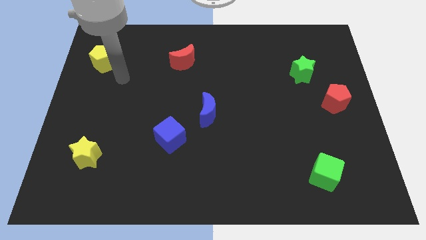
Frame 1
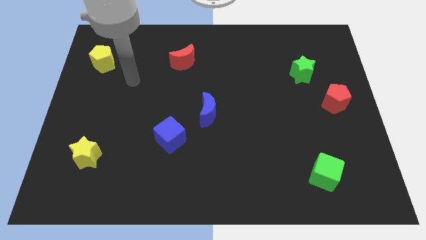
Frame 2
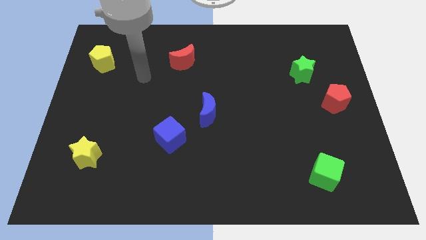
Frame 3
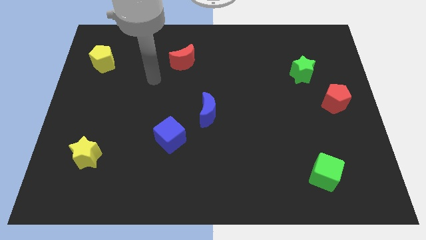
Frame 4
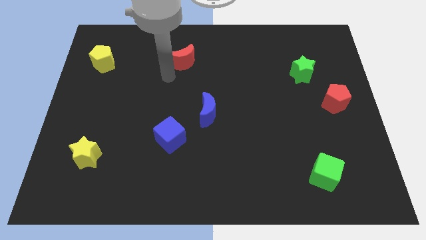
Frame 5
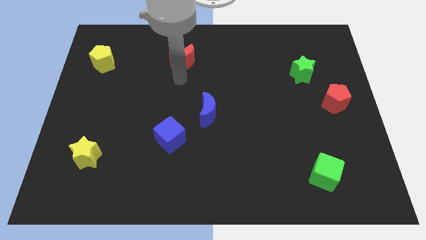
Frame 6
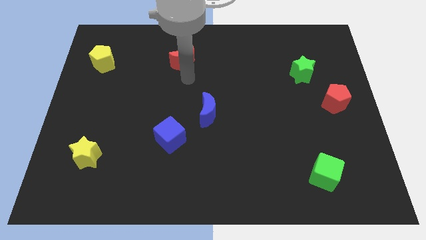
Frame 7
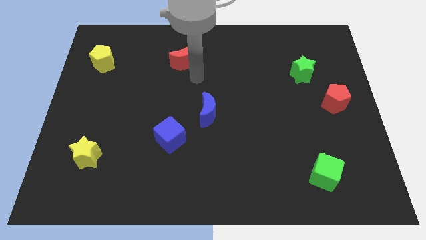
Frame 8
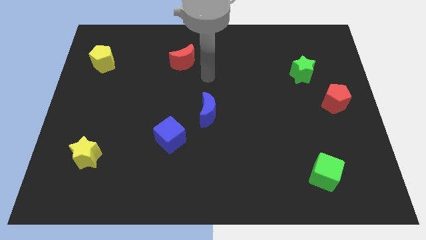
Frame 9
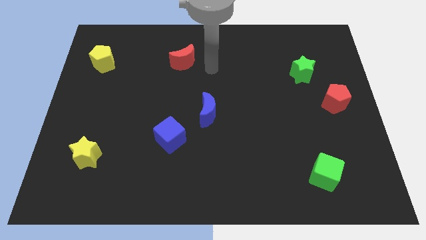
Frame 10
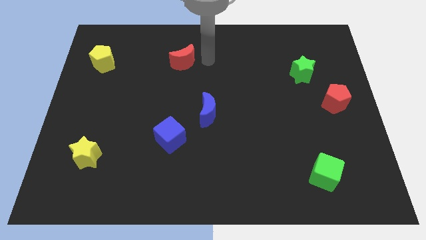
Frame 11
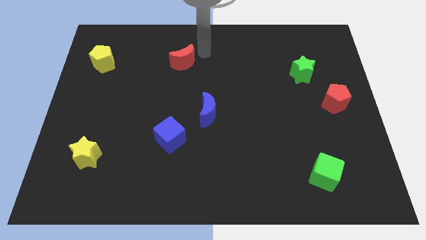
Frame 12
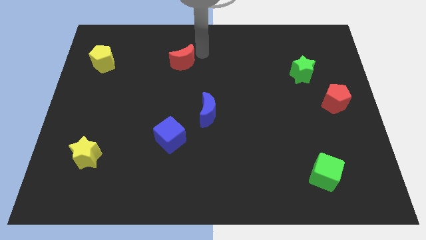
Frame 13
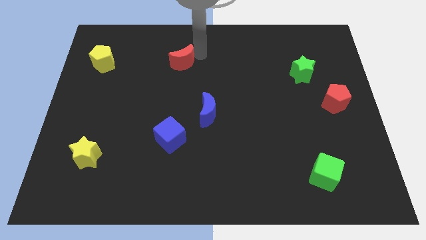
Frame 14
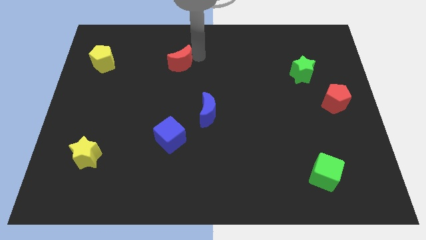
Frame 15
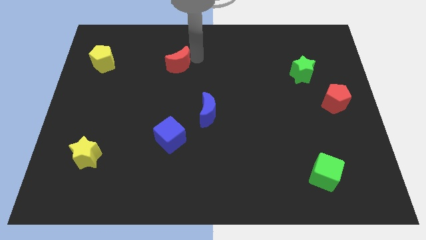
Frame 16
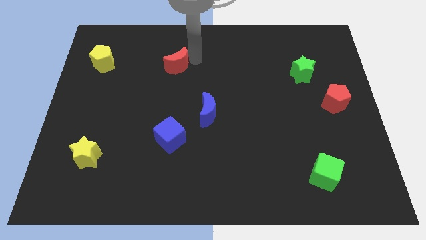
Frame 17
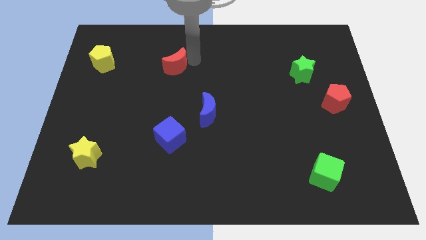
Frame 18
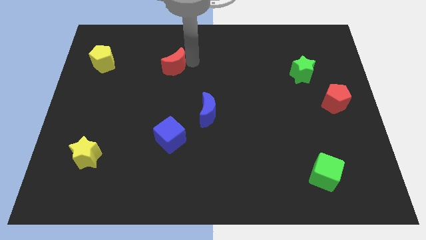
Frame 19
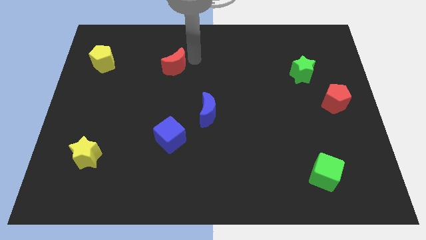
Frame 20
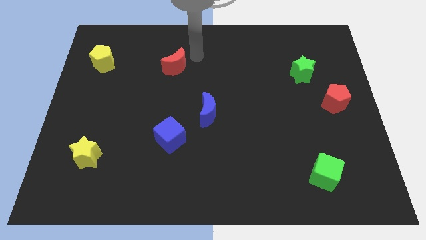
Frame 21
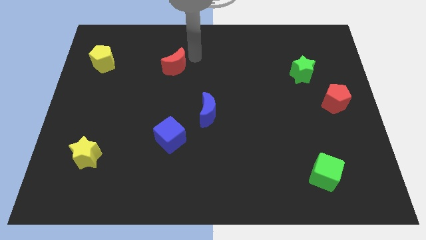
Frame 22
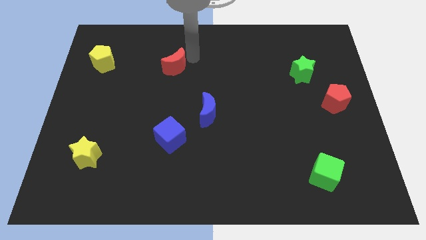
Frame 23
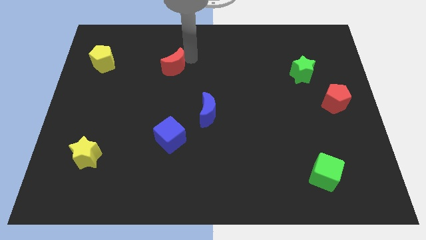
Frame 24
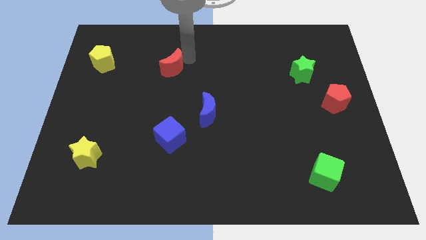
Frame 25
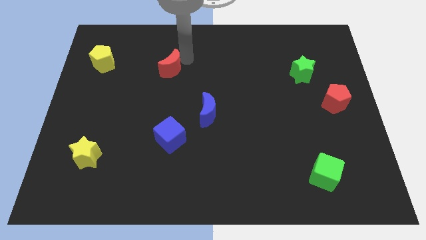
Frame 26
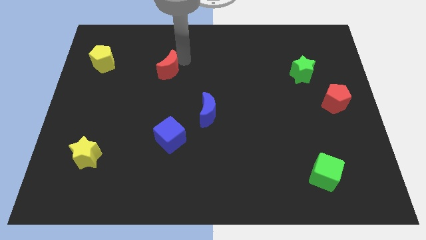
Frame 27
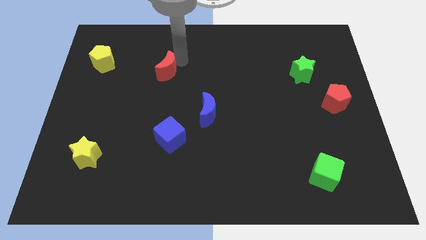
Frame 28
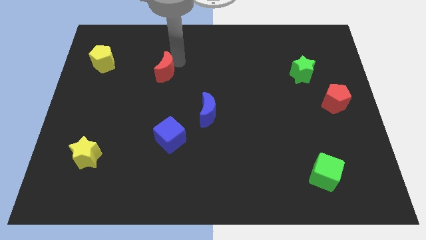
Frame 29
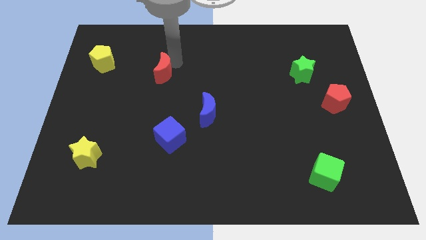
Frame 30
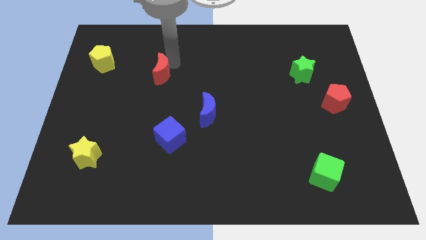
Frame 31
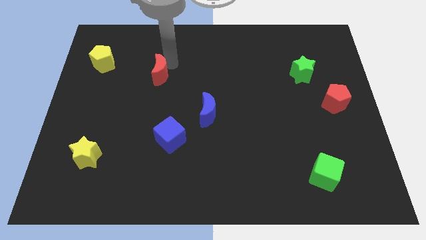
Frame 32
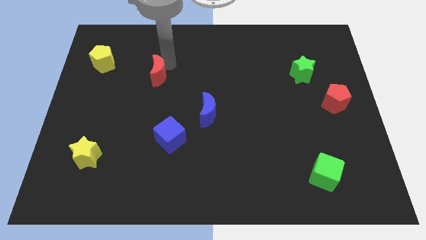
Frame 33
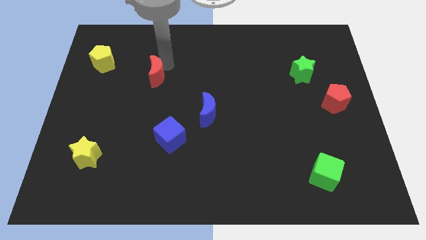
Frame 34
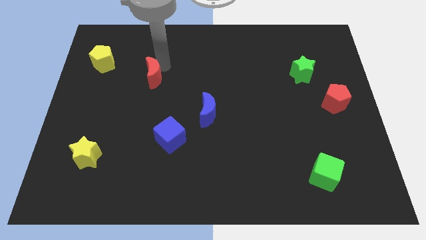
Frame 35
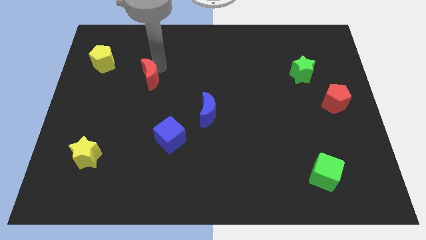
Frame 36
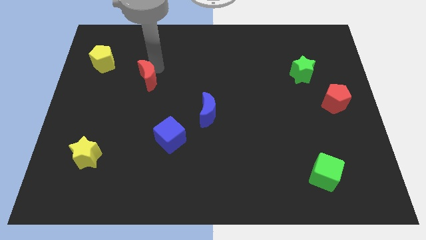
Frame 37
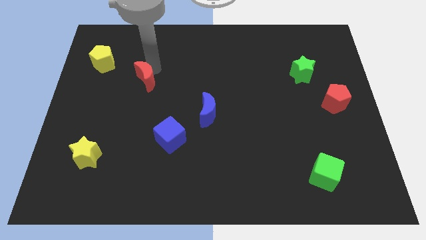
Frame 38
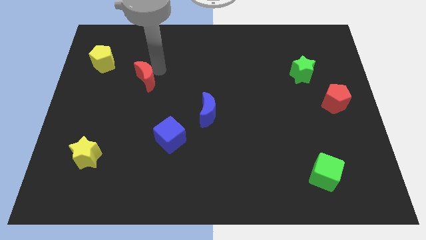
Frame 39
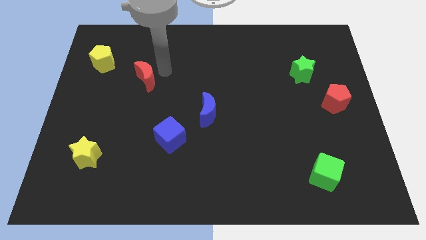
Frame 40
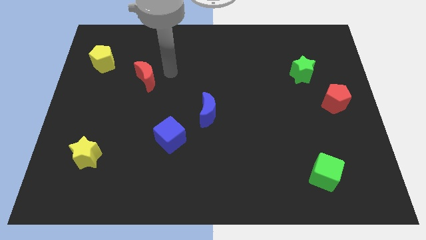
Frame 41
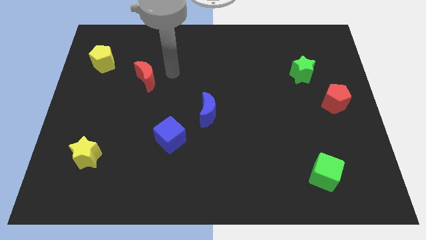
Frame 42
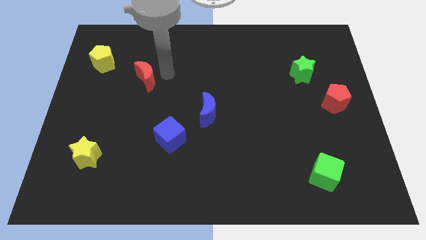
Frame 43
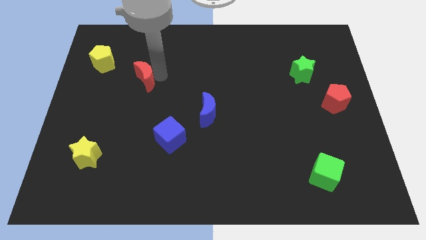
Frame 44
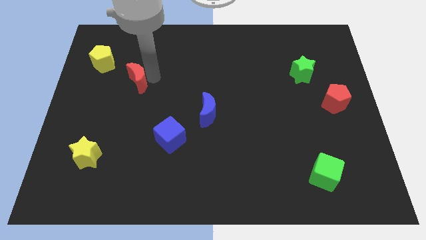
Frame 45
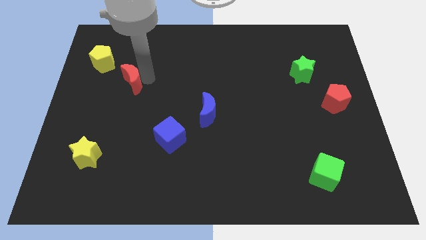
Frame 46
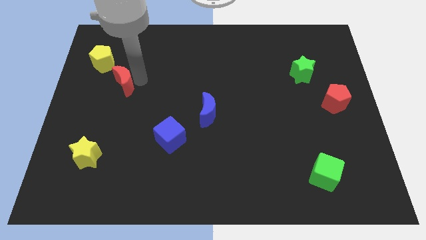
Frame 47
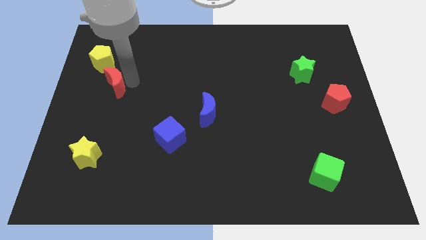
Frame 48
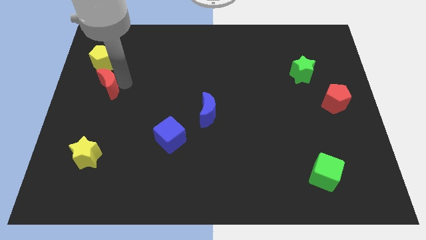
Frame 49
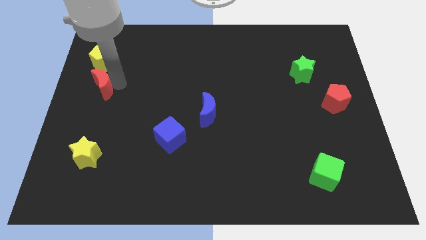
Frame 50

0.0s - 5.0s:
push the red moon to the center left

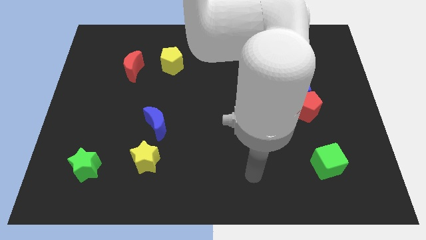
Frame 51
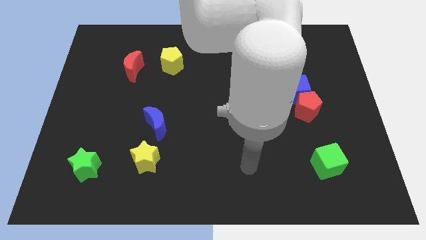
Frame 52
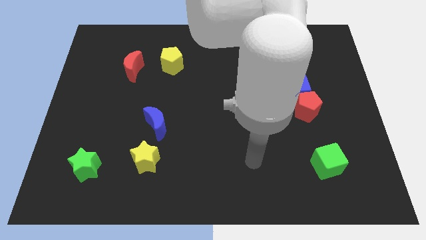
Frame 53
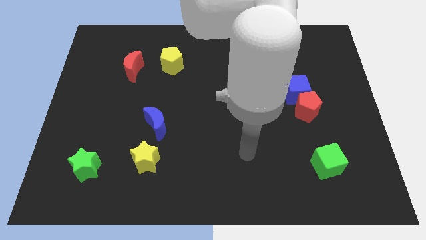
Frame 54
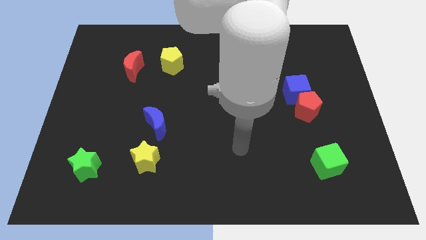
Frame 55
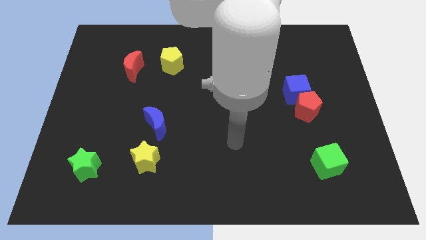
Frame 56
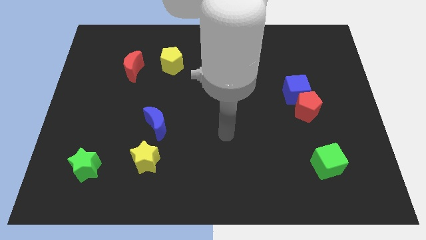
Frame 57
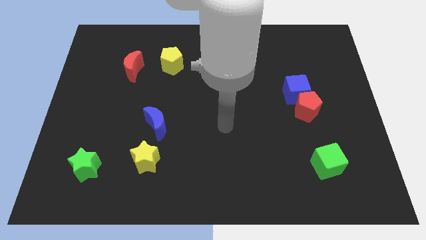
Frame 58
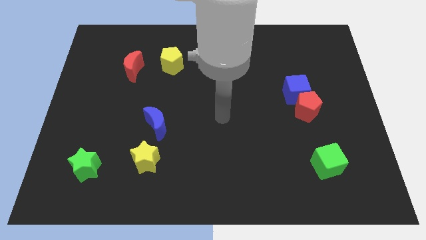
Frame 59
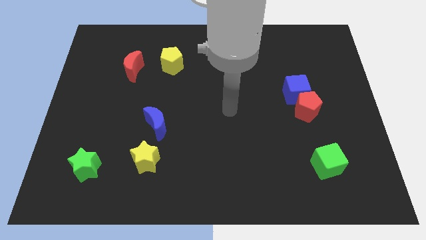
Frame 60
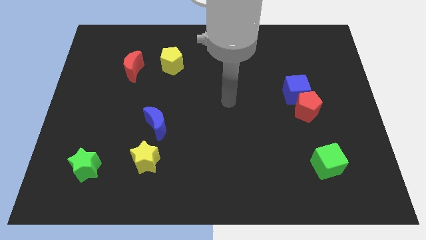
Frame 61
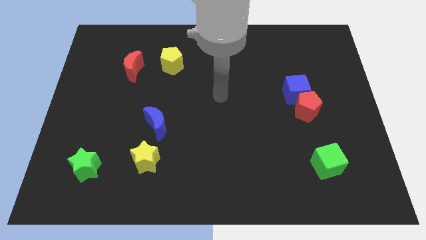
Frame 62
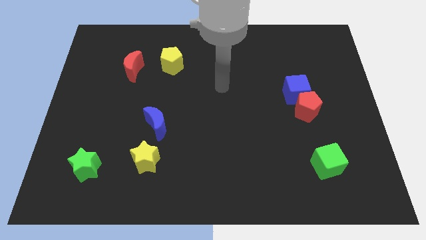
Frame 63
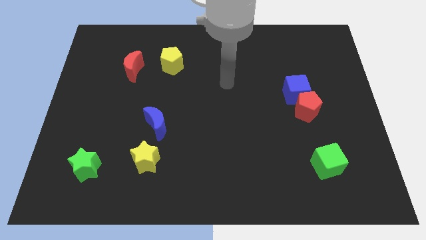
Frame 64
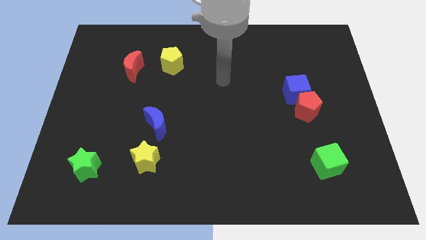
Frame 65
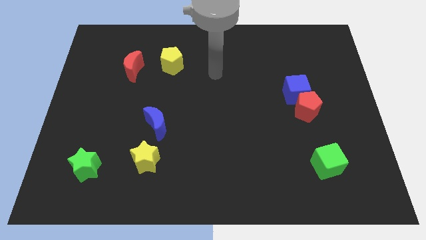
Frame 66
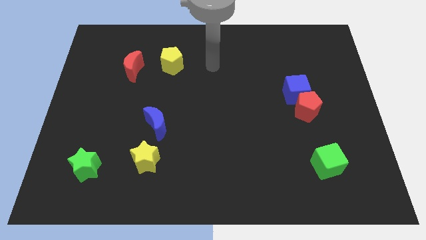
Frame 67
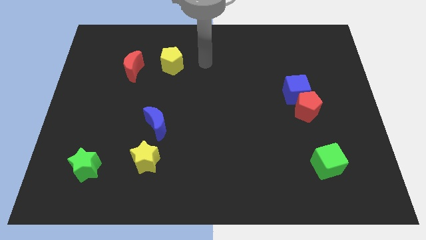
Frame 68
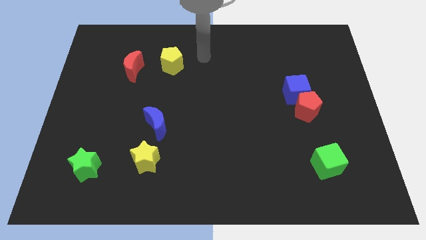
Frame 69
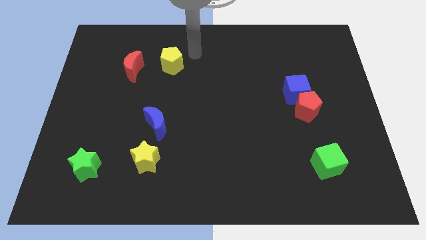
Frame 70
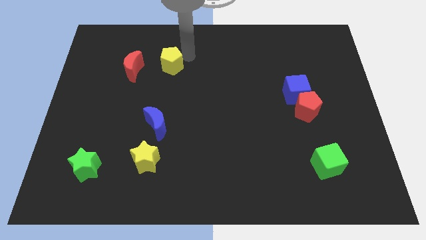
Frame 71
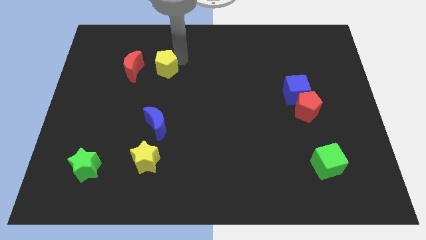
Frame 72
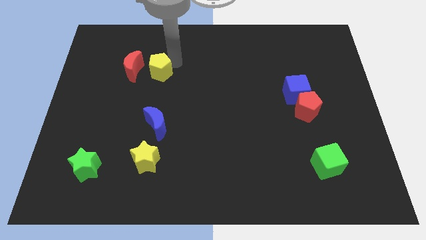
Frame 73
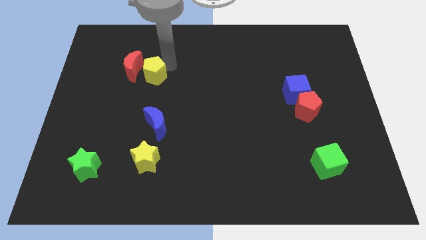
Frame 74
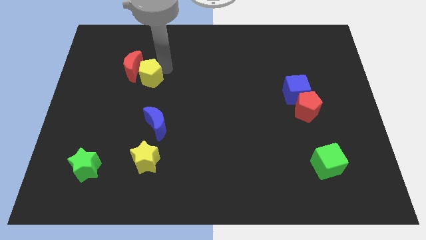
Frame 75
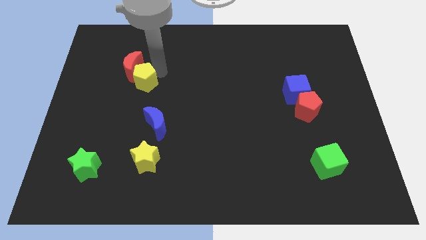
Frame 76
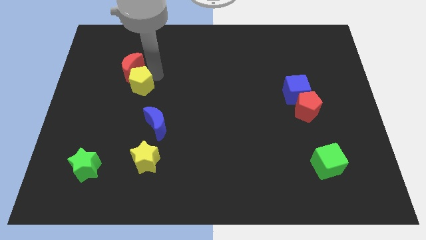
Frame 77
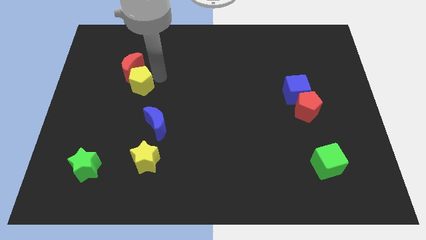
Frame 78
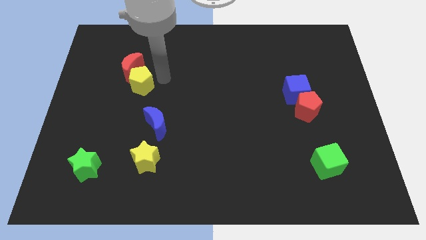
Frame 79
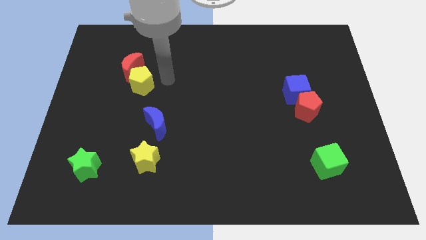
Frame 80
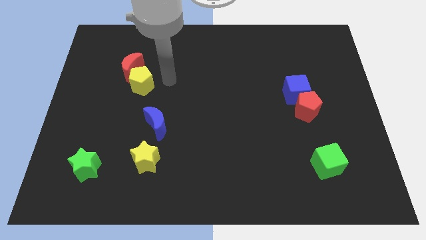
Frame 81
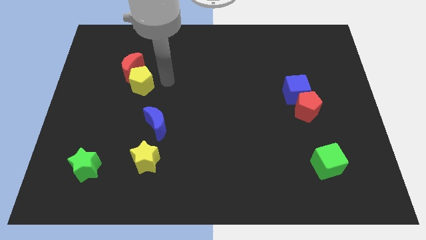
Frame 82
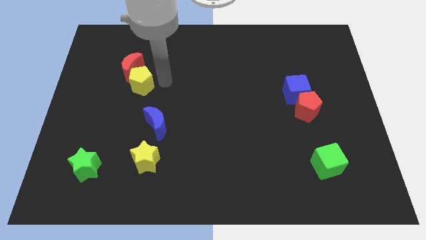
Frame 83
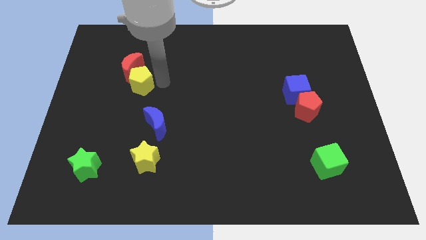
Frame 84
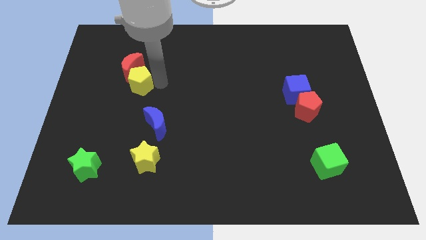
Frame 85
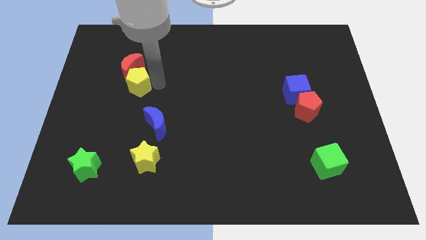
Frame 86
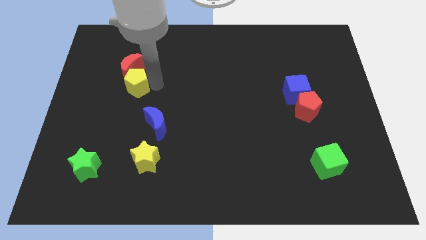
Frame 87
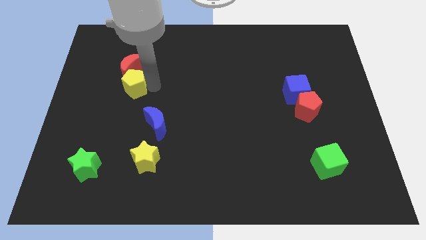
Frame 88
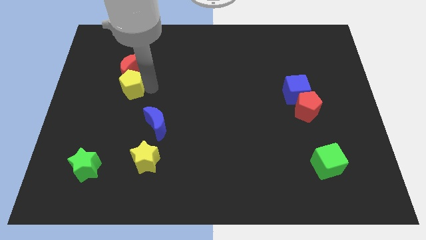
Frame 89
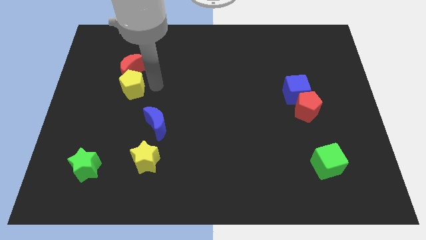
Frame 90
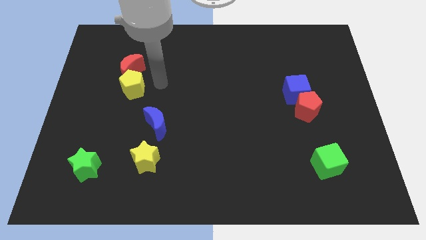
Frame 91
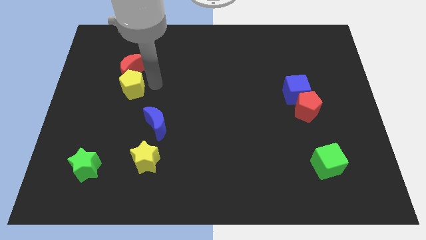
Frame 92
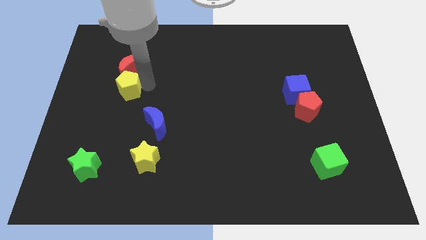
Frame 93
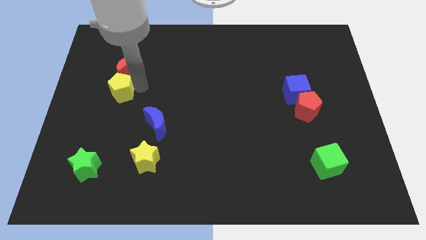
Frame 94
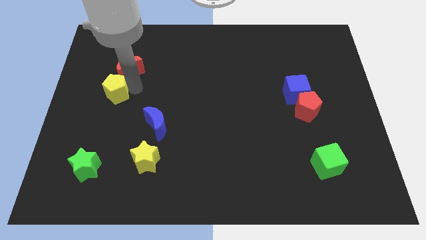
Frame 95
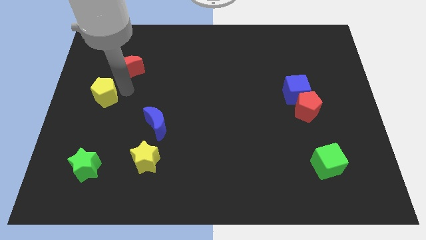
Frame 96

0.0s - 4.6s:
push the yellow pentagon to the center left
